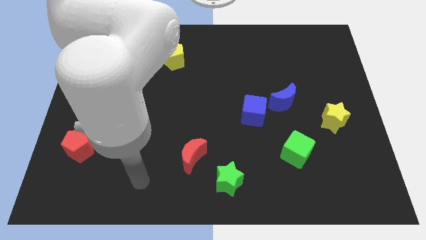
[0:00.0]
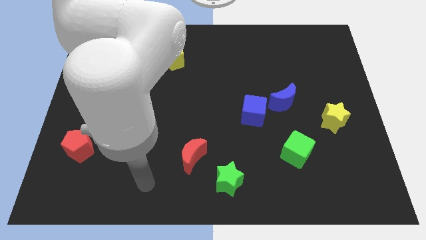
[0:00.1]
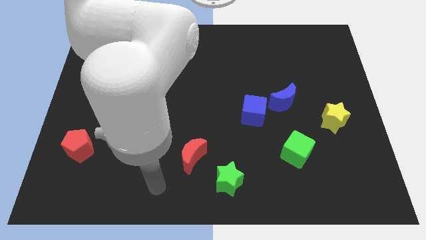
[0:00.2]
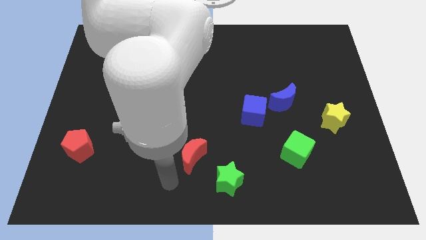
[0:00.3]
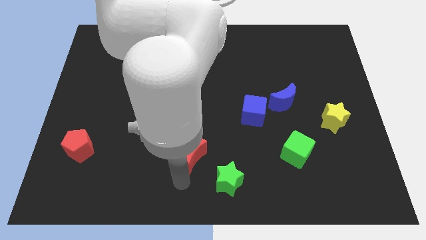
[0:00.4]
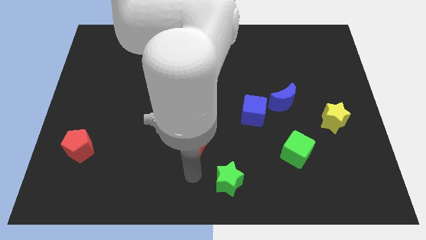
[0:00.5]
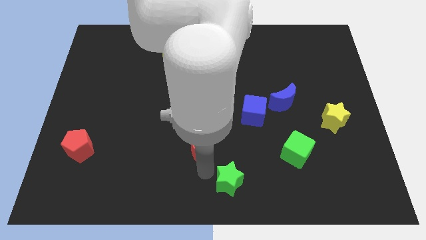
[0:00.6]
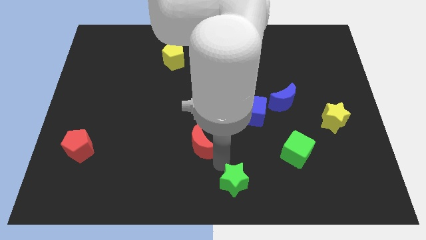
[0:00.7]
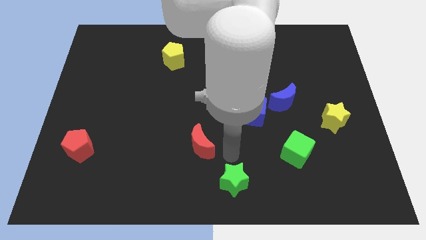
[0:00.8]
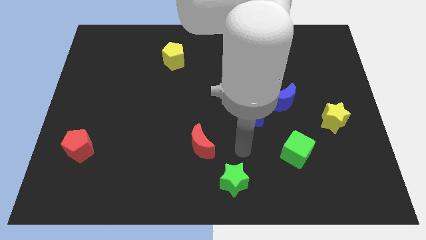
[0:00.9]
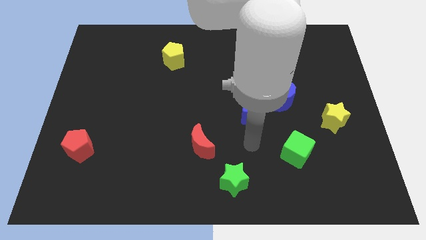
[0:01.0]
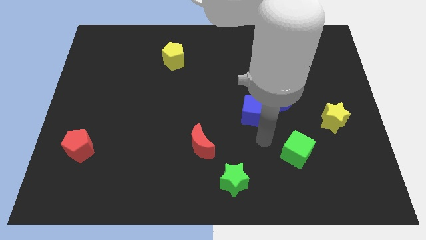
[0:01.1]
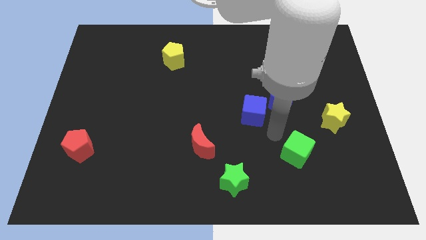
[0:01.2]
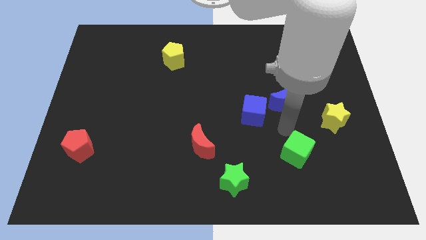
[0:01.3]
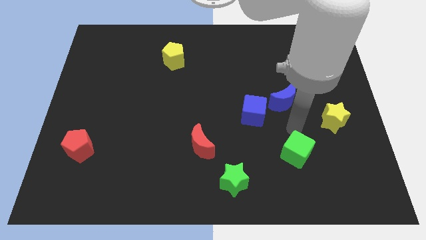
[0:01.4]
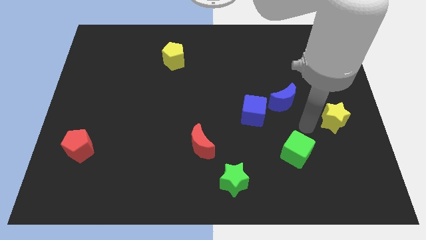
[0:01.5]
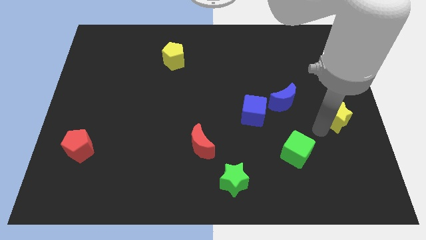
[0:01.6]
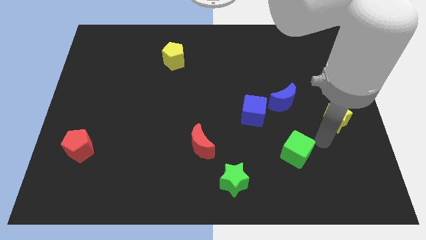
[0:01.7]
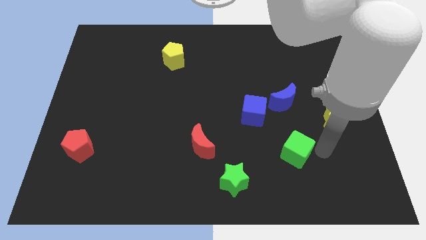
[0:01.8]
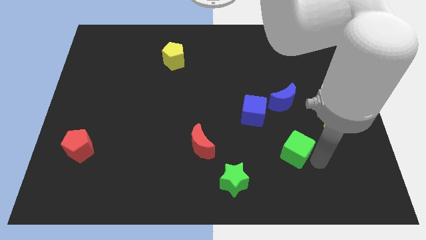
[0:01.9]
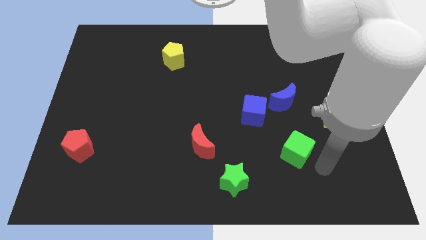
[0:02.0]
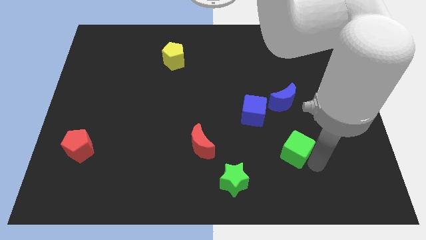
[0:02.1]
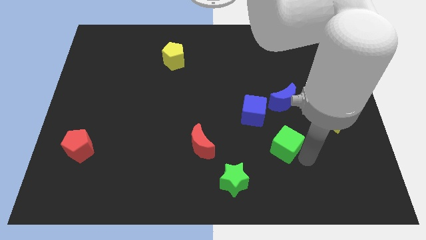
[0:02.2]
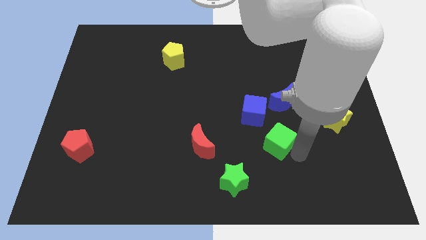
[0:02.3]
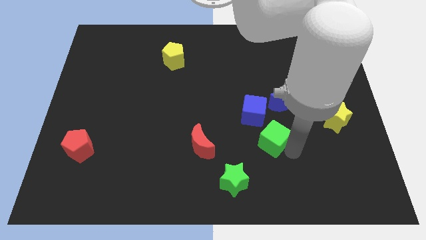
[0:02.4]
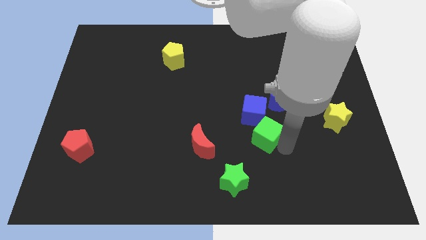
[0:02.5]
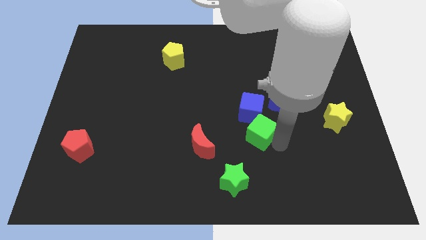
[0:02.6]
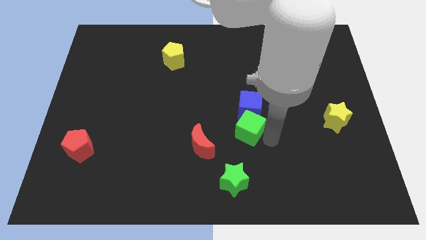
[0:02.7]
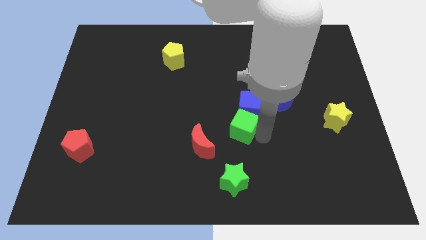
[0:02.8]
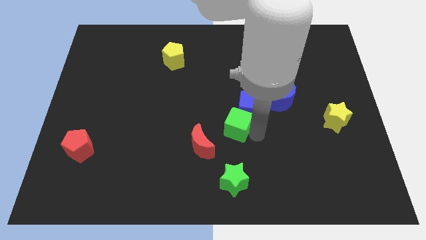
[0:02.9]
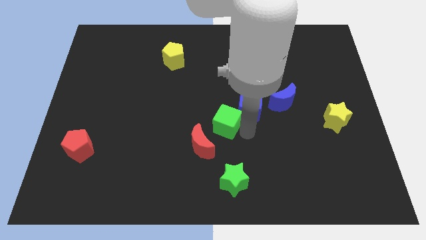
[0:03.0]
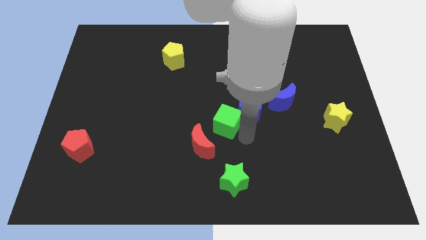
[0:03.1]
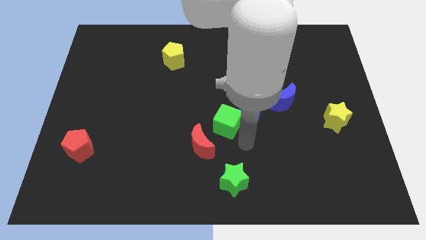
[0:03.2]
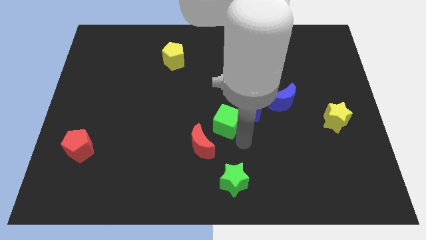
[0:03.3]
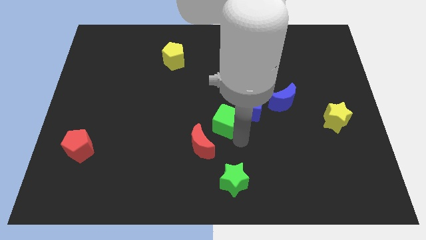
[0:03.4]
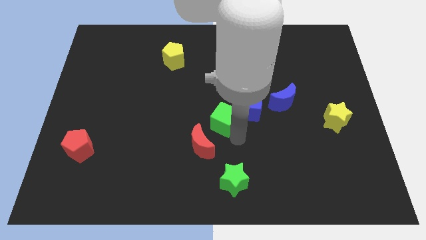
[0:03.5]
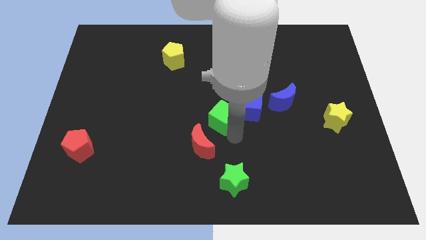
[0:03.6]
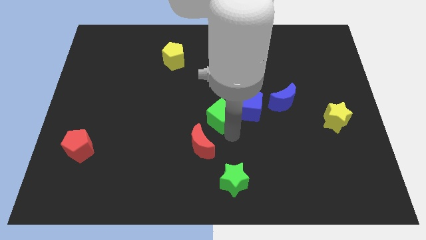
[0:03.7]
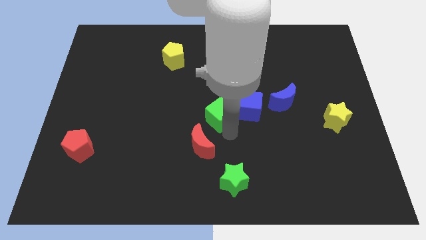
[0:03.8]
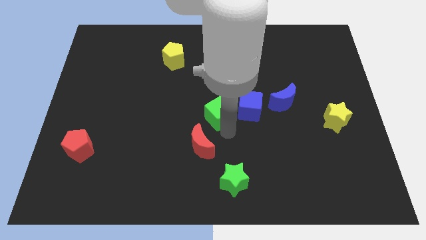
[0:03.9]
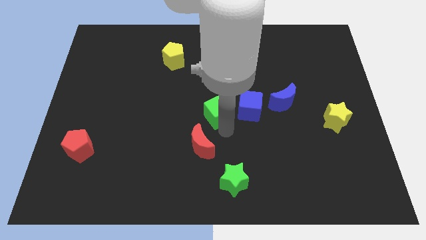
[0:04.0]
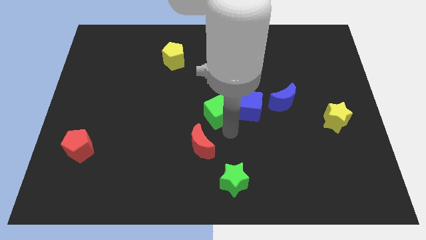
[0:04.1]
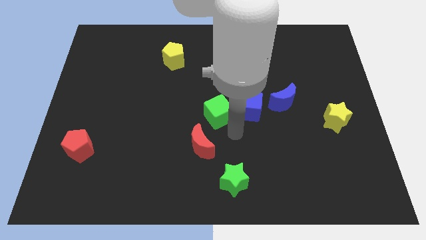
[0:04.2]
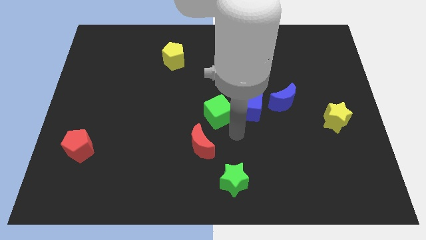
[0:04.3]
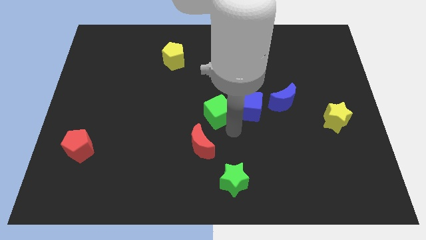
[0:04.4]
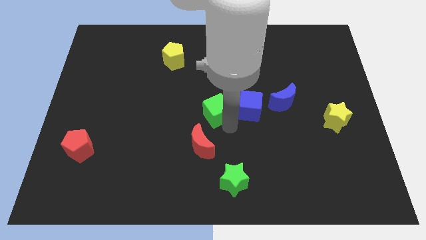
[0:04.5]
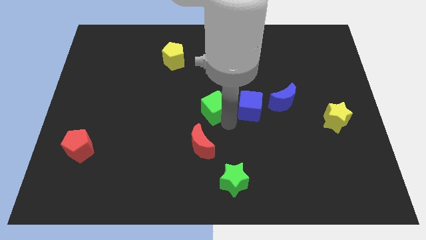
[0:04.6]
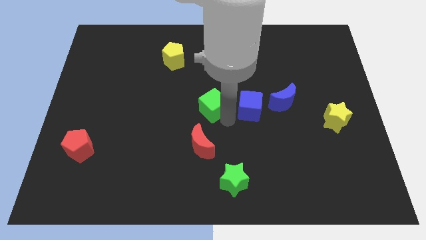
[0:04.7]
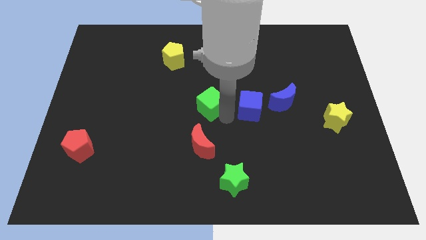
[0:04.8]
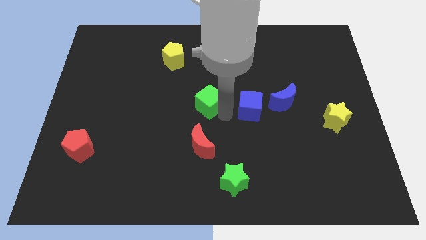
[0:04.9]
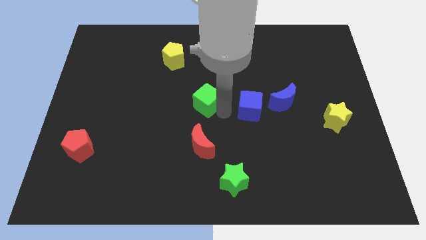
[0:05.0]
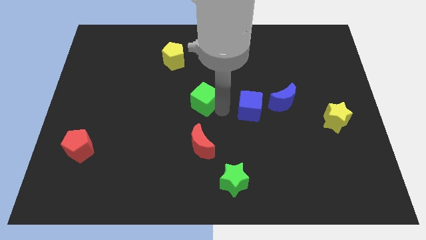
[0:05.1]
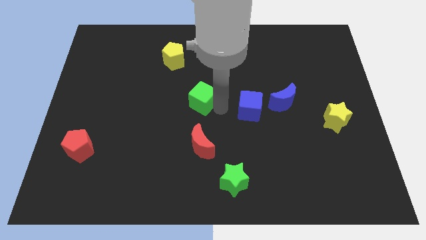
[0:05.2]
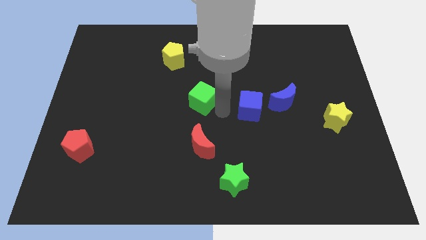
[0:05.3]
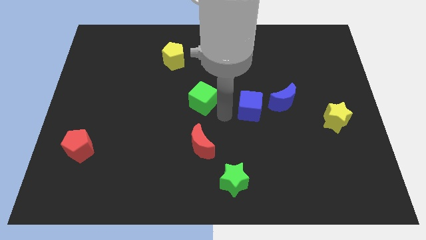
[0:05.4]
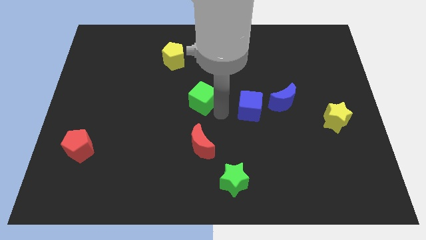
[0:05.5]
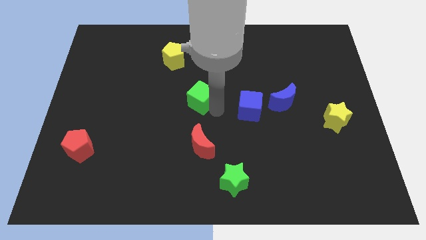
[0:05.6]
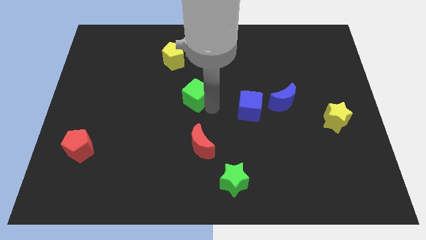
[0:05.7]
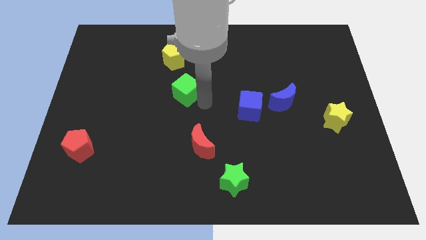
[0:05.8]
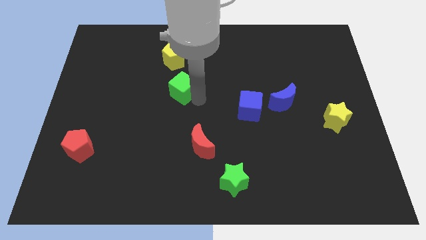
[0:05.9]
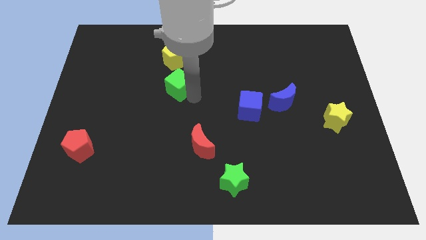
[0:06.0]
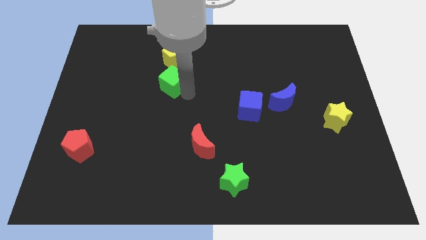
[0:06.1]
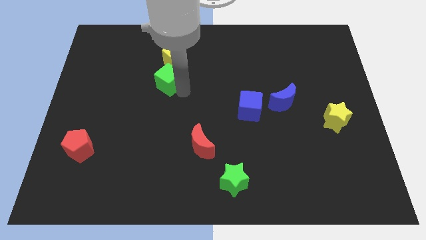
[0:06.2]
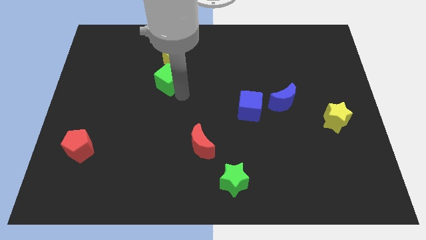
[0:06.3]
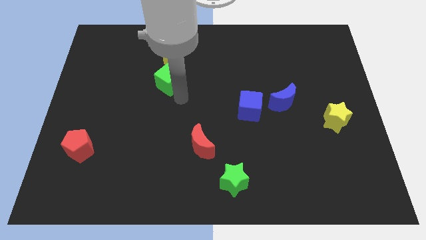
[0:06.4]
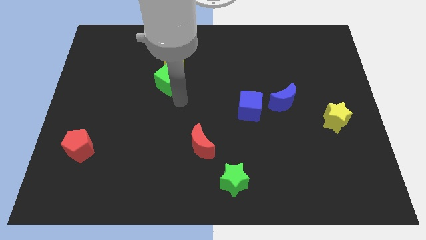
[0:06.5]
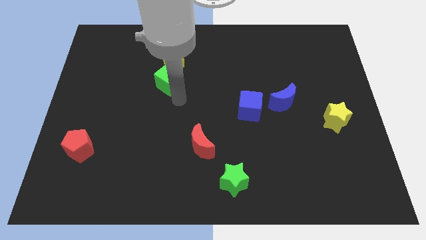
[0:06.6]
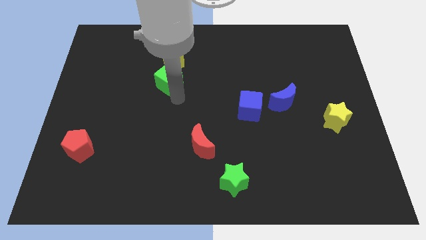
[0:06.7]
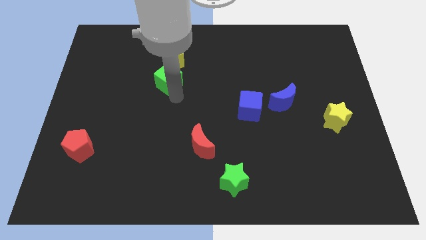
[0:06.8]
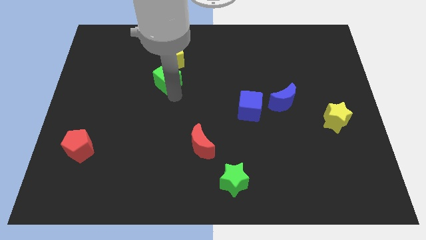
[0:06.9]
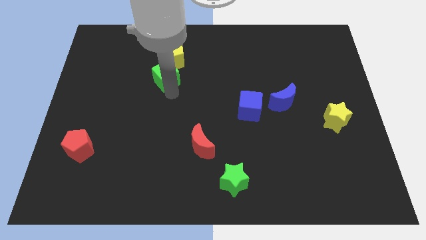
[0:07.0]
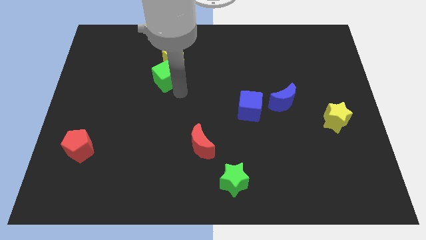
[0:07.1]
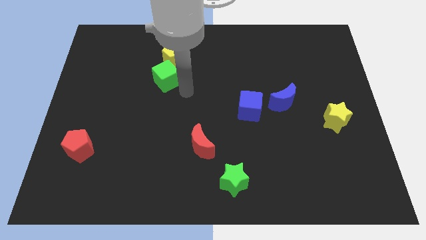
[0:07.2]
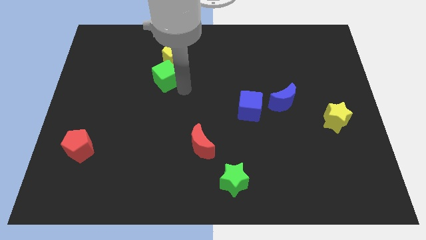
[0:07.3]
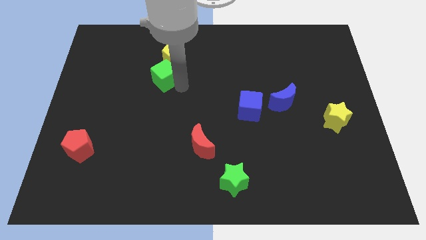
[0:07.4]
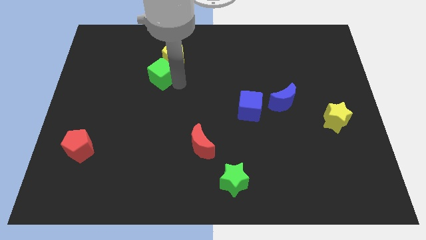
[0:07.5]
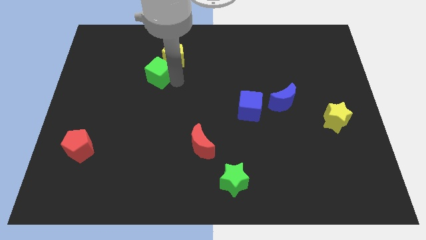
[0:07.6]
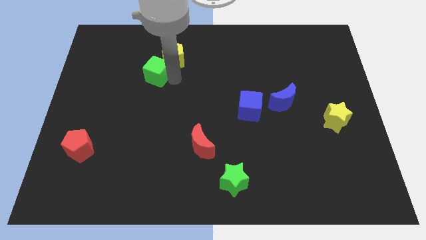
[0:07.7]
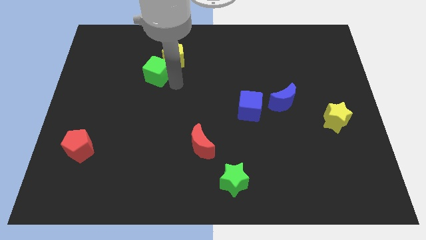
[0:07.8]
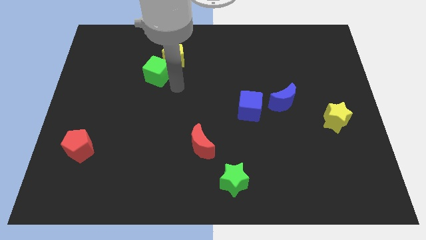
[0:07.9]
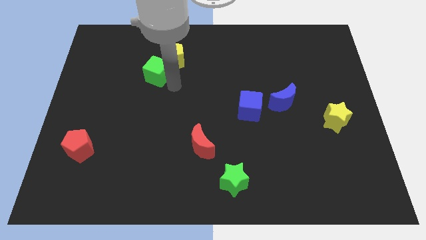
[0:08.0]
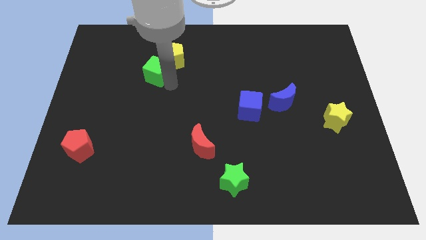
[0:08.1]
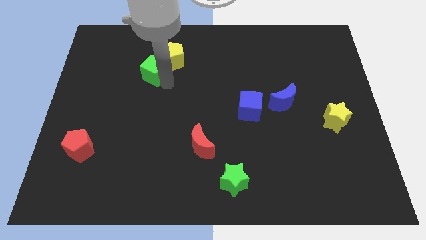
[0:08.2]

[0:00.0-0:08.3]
push the green cube to the left of the yellow pentagon
